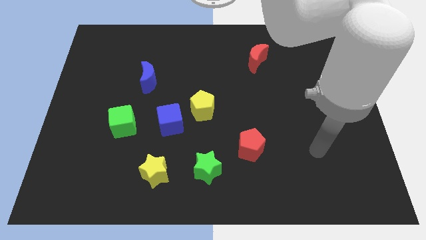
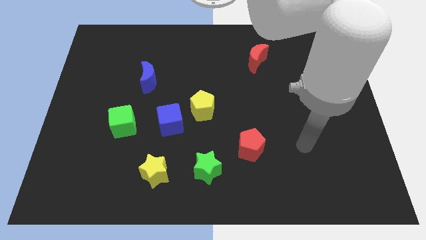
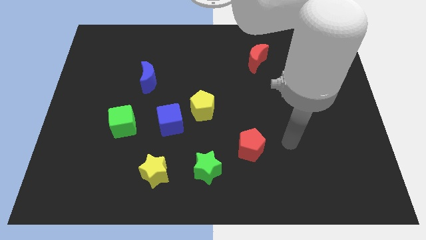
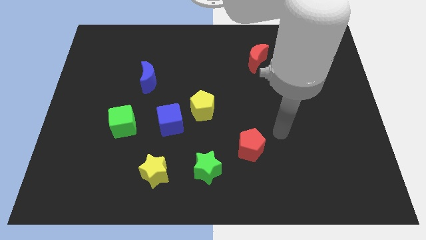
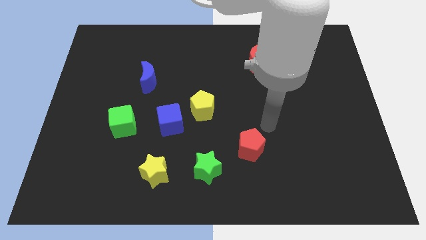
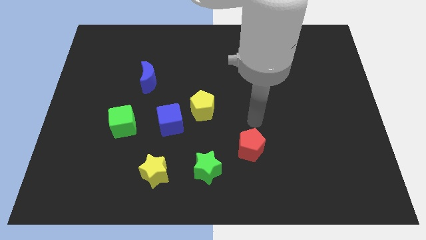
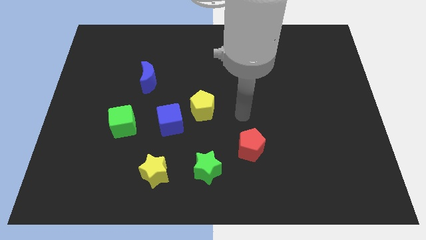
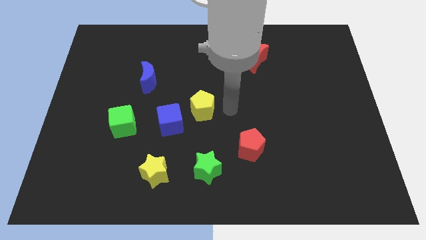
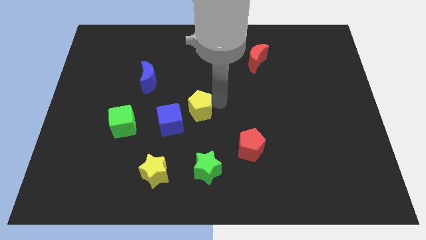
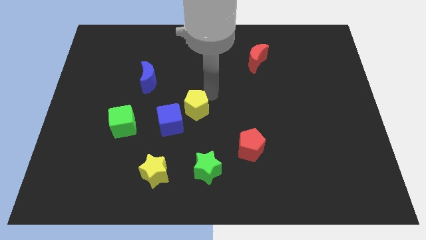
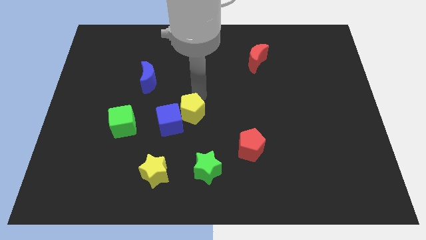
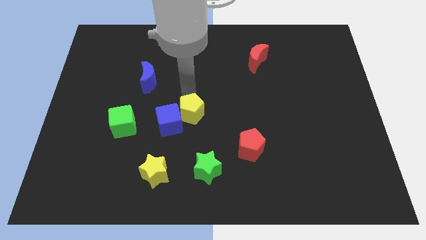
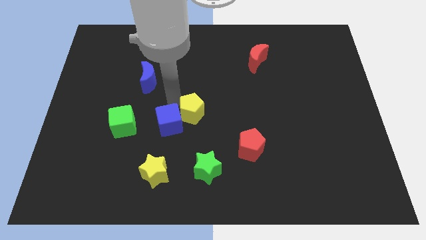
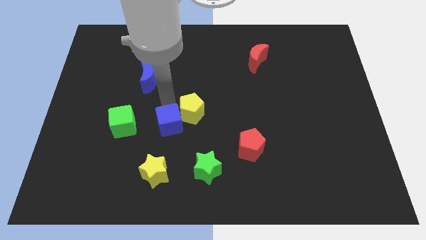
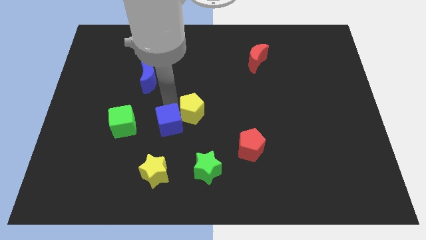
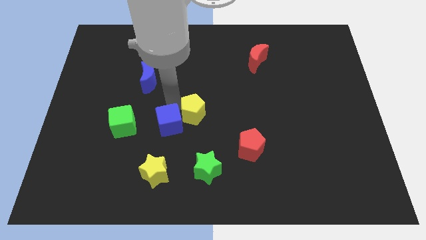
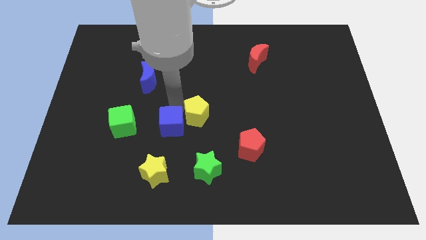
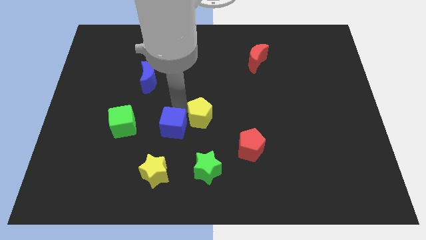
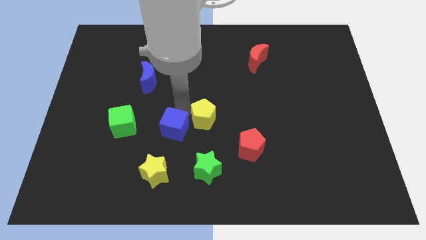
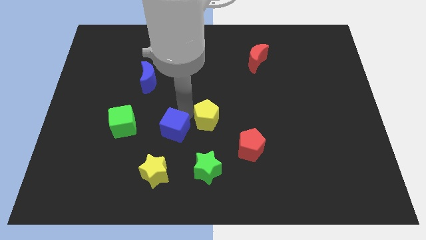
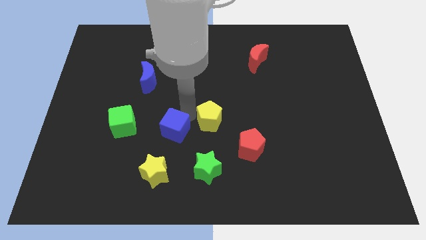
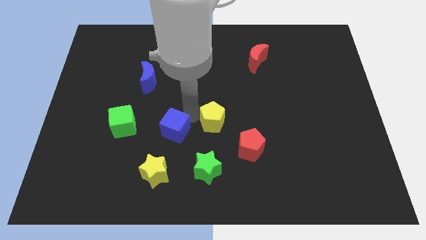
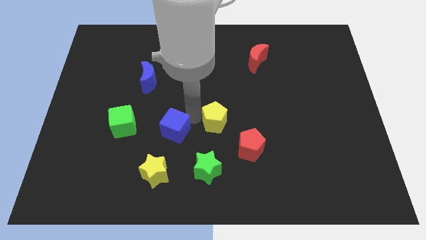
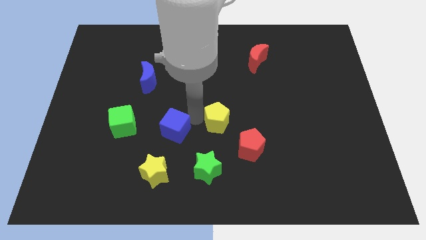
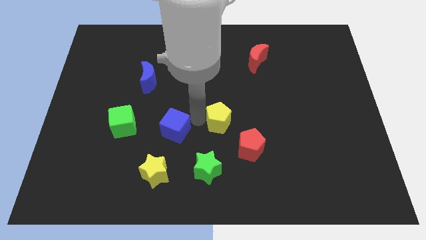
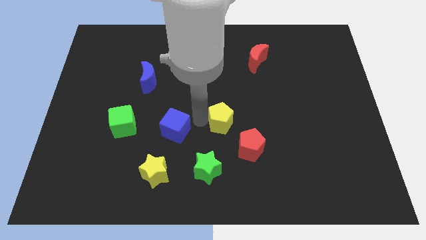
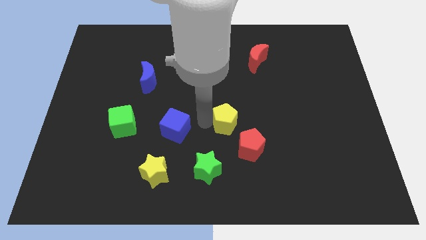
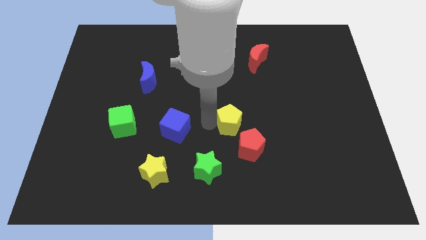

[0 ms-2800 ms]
slide the yellow pentagon a little downwards and to the right

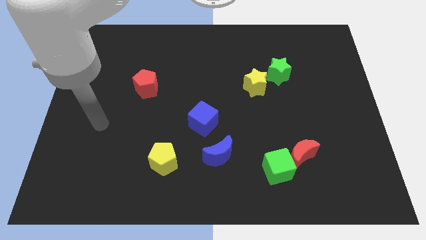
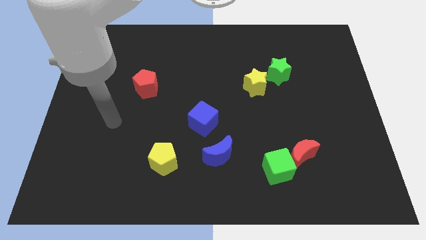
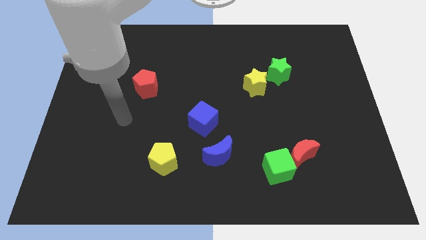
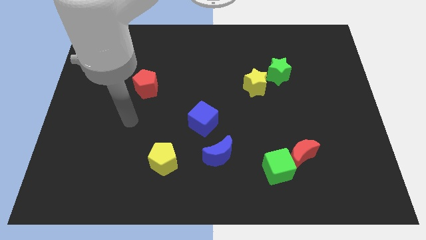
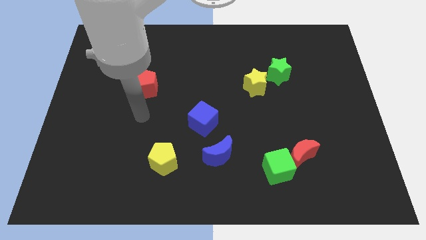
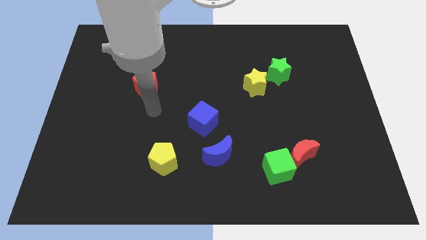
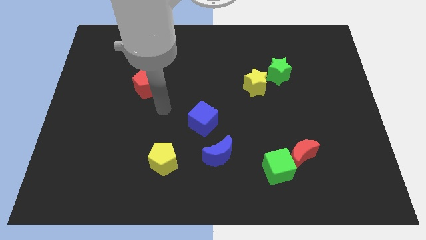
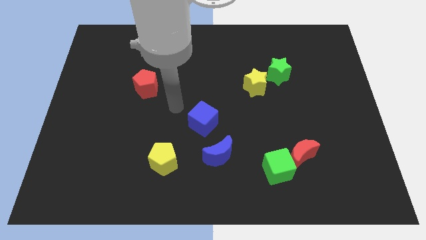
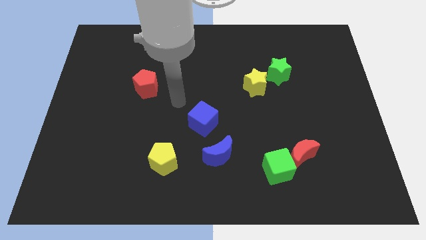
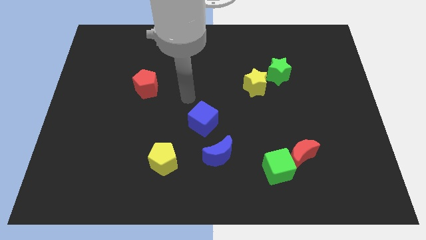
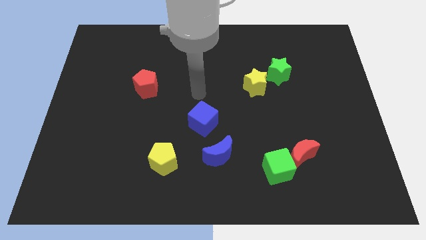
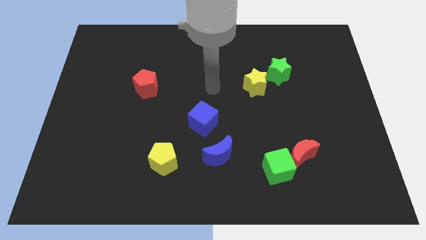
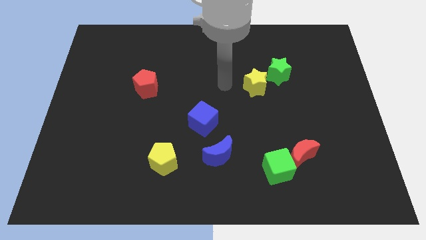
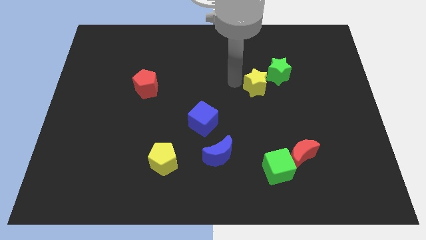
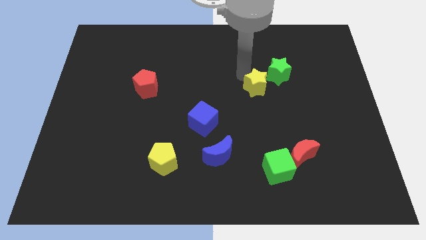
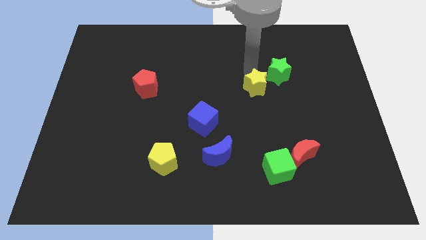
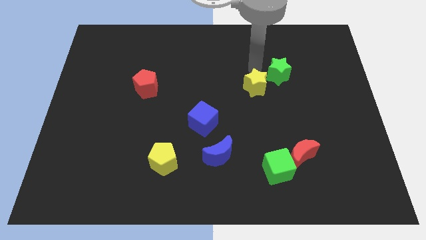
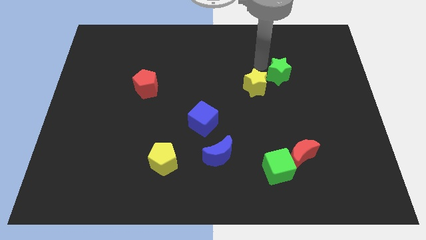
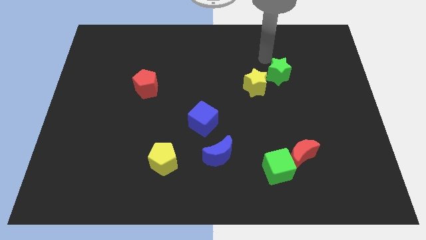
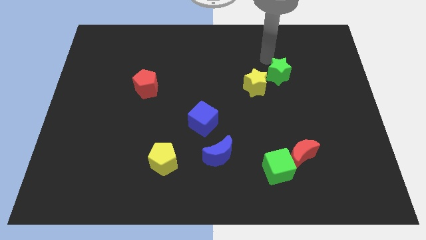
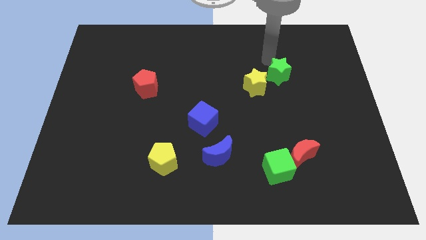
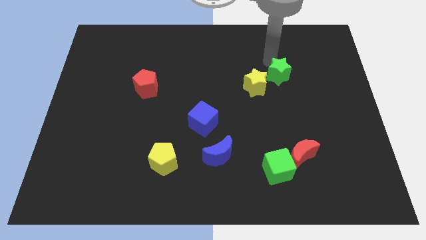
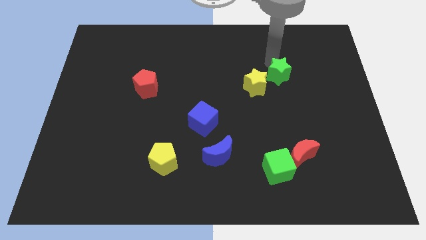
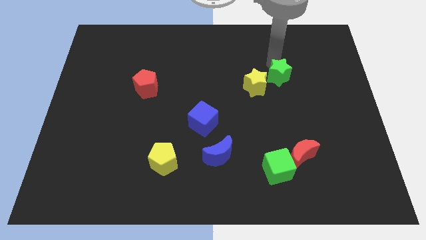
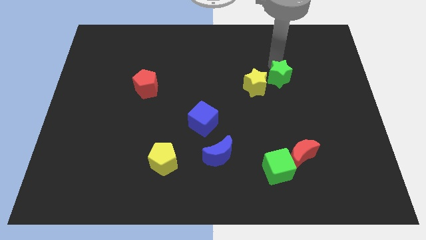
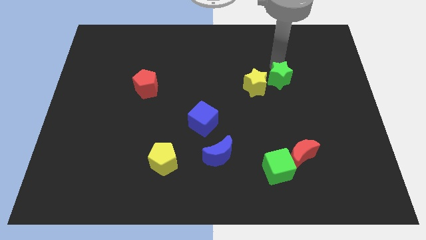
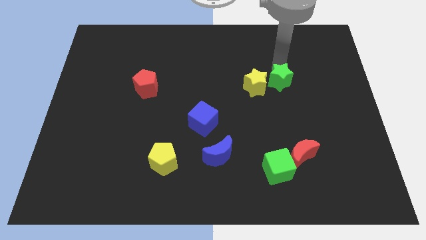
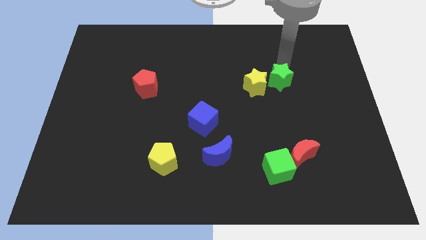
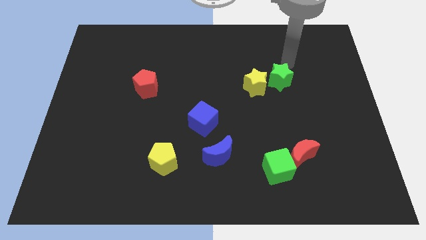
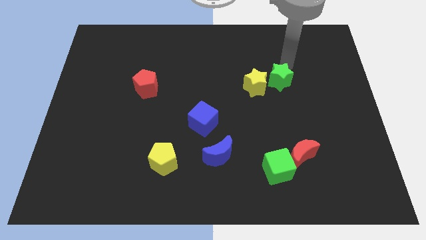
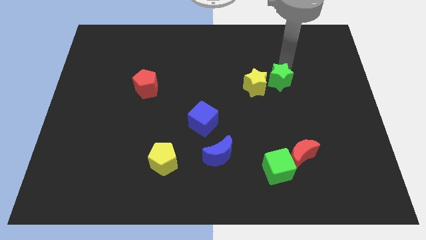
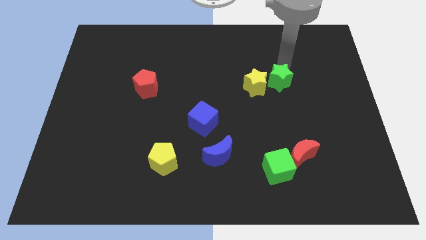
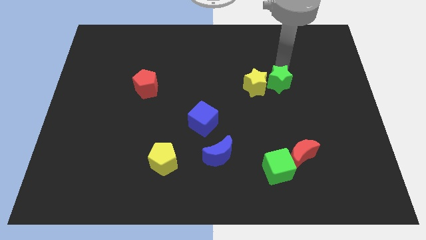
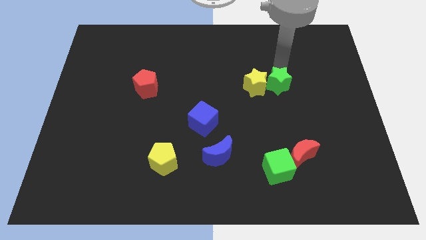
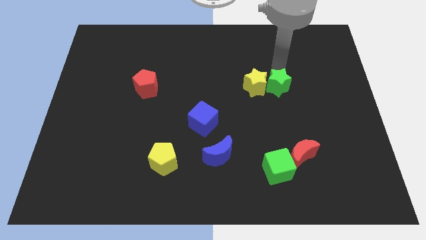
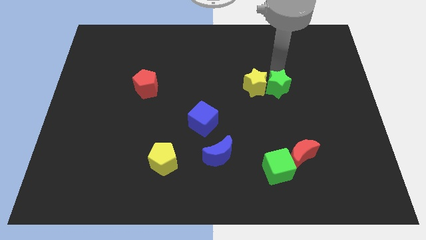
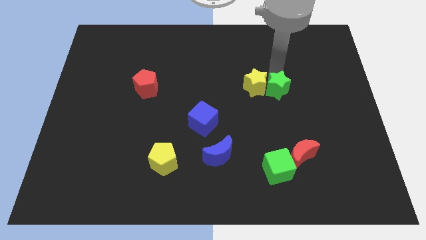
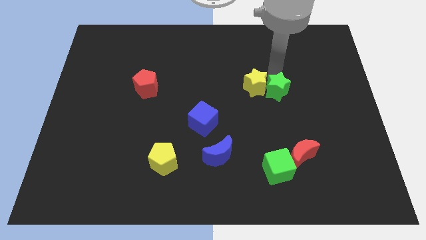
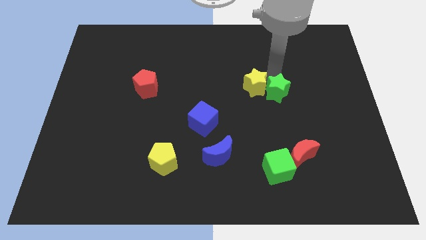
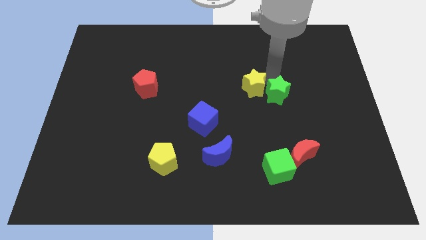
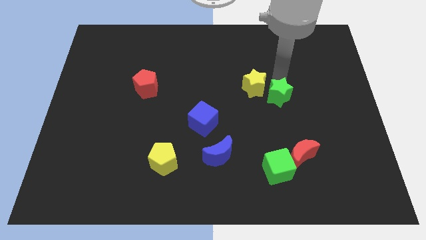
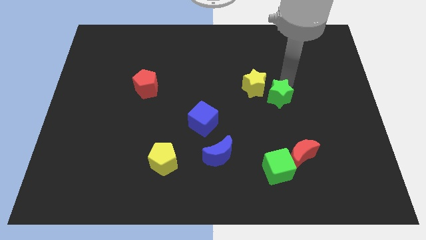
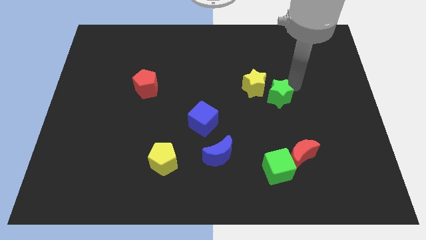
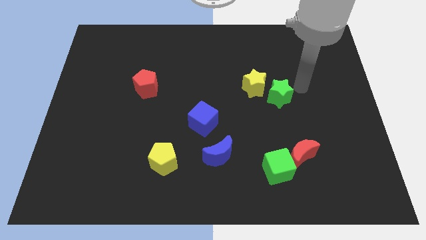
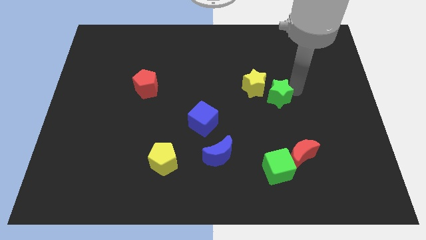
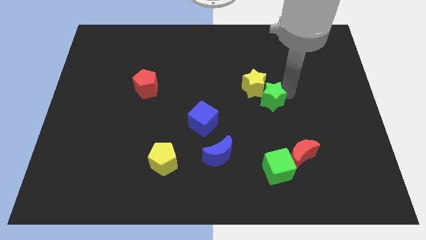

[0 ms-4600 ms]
slide the green star diagonally down and left a little
